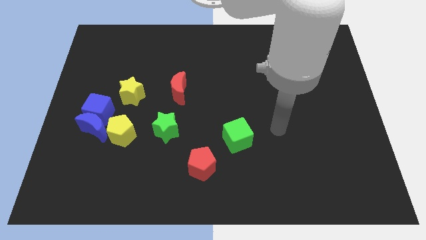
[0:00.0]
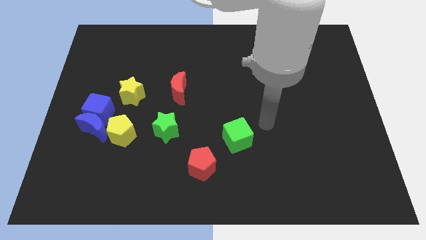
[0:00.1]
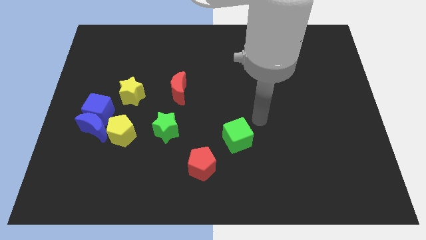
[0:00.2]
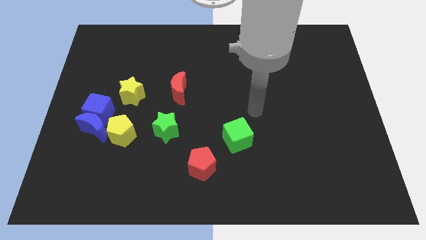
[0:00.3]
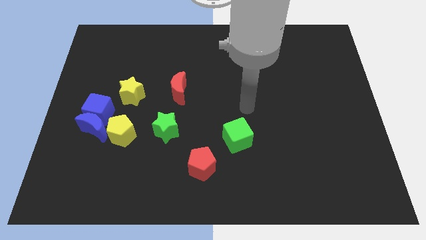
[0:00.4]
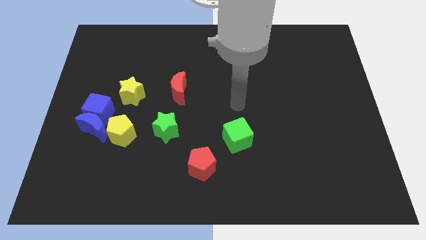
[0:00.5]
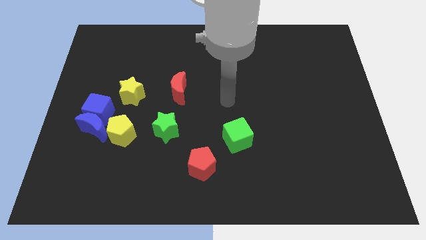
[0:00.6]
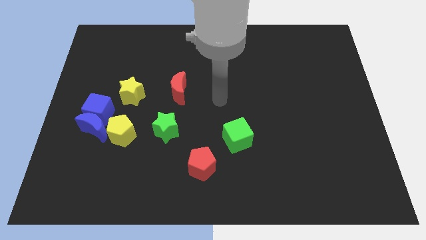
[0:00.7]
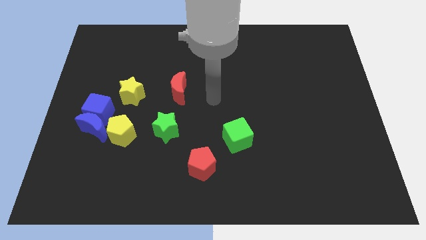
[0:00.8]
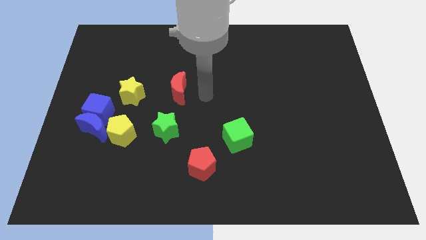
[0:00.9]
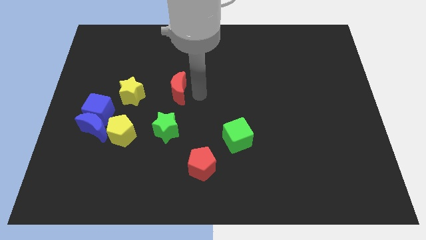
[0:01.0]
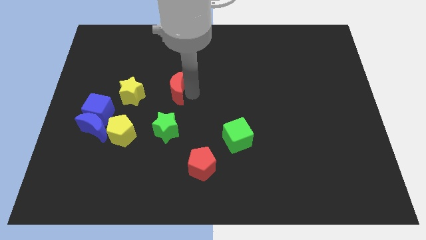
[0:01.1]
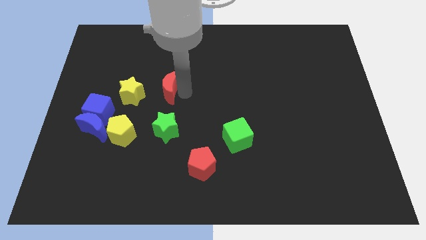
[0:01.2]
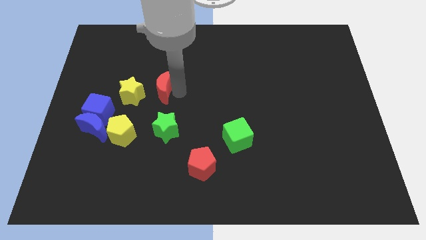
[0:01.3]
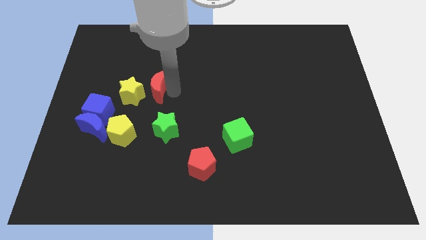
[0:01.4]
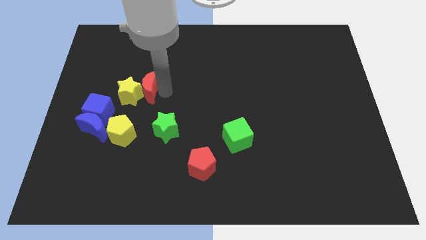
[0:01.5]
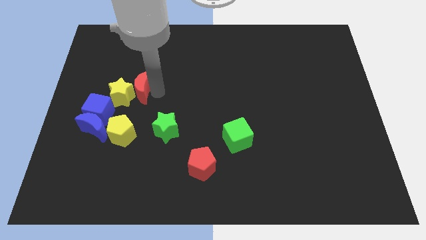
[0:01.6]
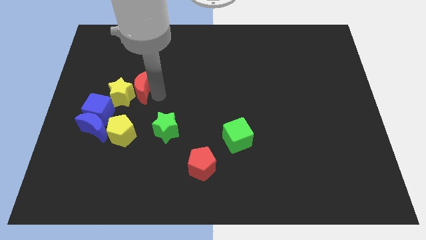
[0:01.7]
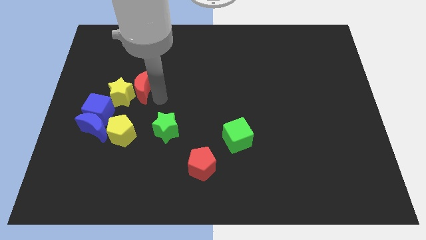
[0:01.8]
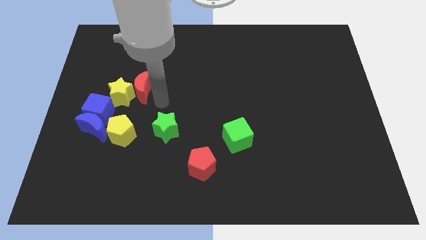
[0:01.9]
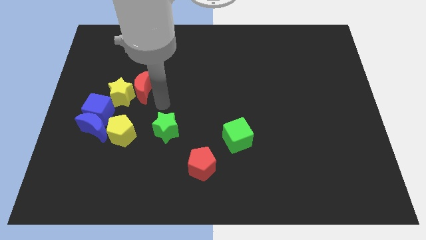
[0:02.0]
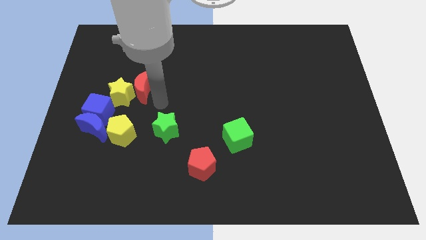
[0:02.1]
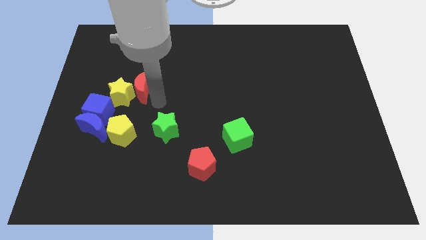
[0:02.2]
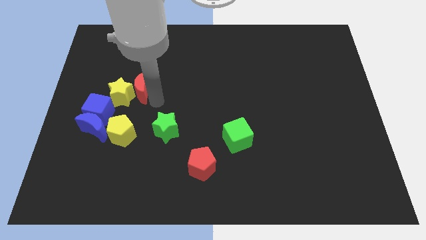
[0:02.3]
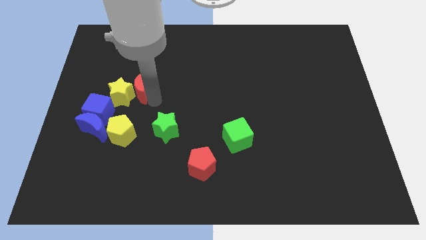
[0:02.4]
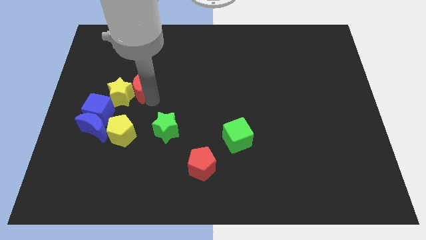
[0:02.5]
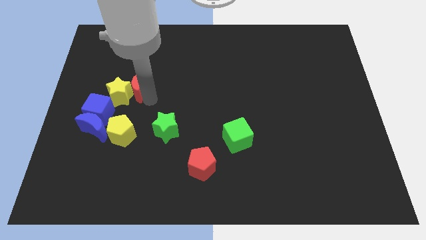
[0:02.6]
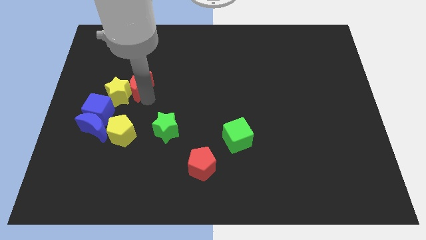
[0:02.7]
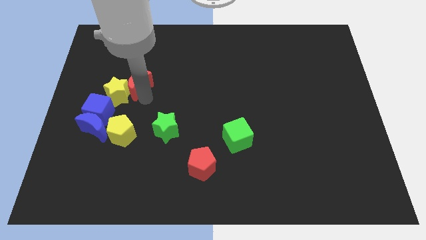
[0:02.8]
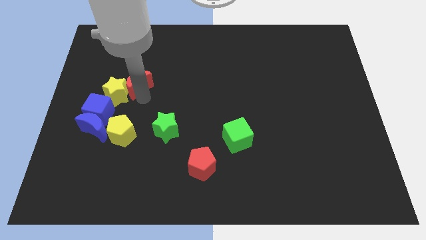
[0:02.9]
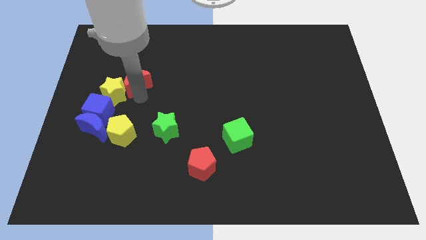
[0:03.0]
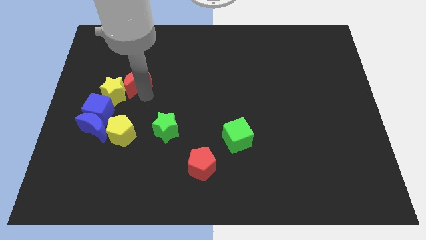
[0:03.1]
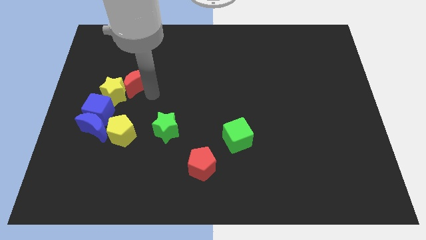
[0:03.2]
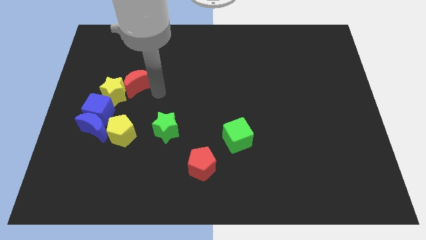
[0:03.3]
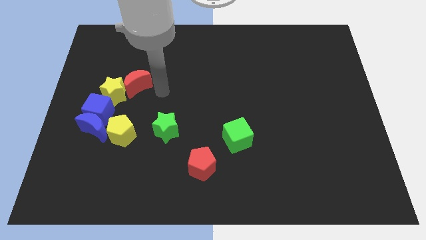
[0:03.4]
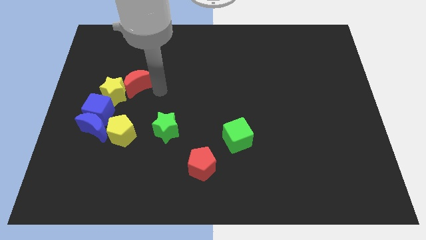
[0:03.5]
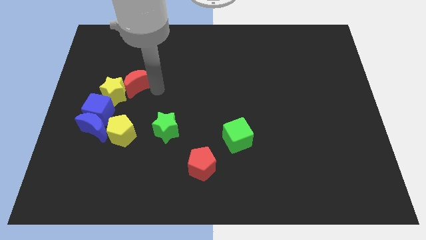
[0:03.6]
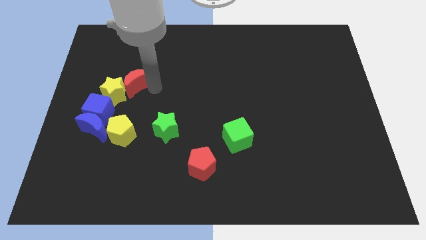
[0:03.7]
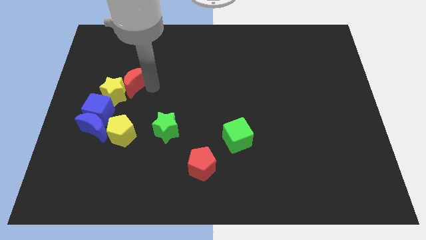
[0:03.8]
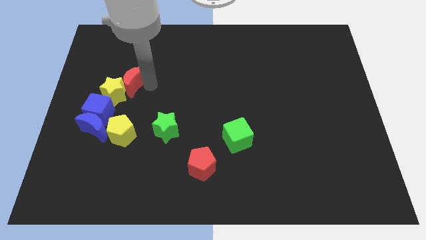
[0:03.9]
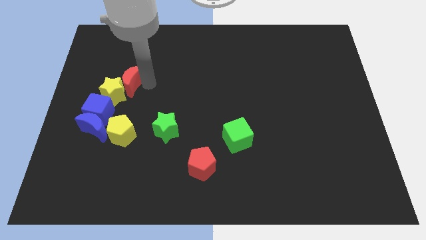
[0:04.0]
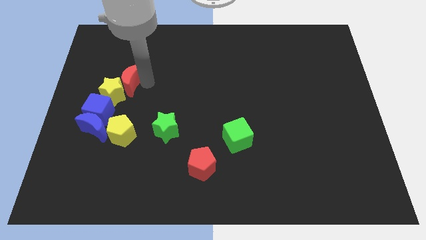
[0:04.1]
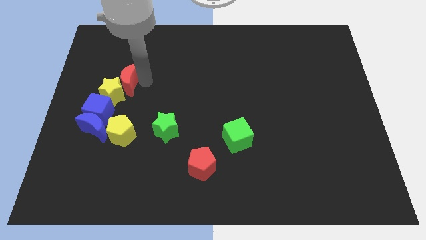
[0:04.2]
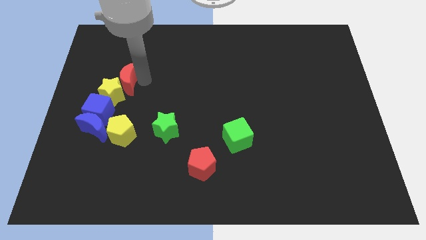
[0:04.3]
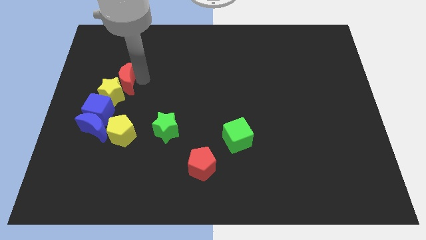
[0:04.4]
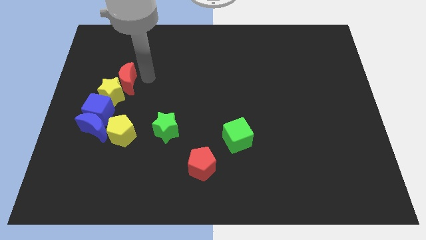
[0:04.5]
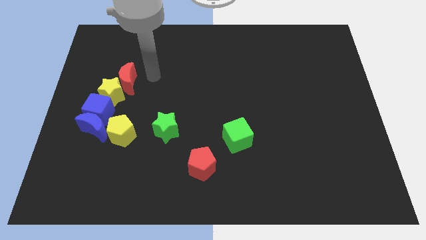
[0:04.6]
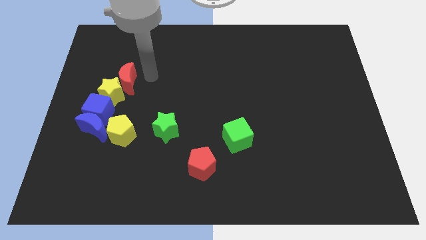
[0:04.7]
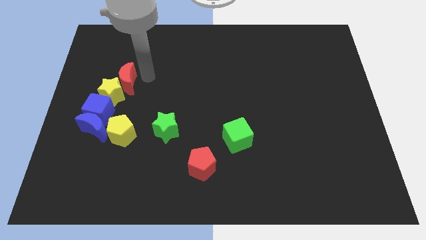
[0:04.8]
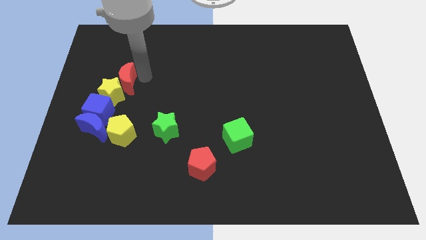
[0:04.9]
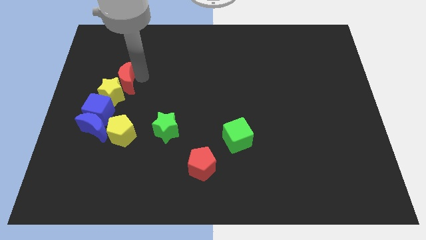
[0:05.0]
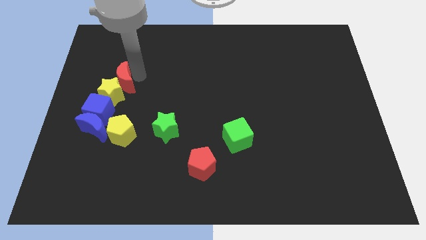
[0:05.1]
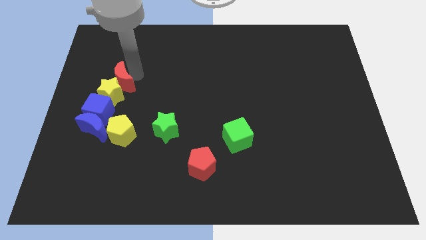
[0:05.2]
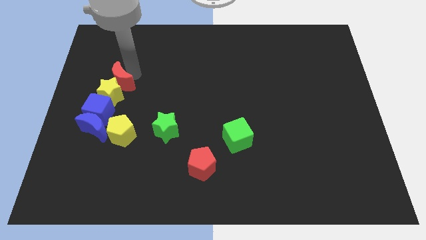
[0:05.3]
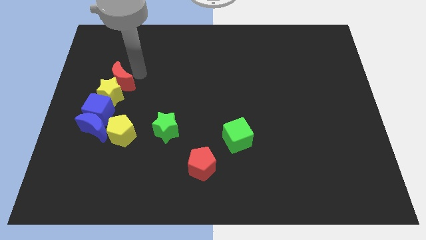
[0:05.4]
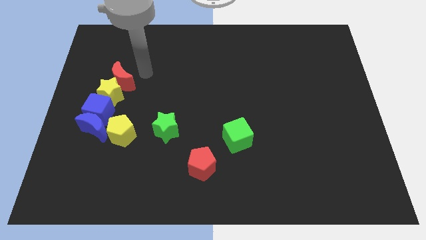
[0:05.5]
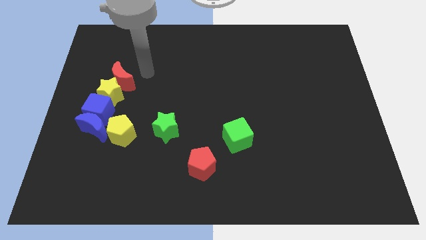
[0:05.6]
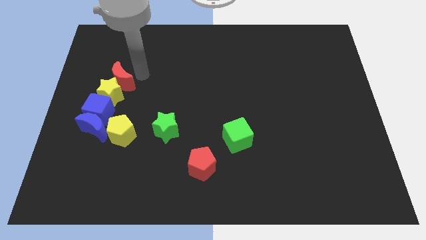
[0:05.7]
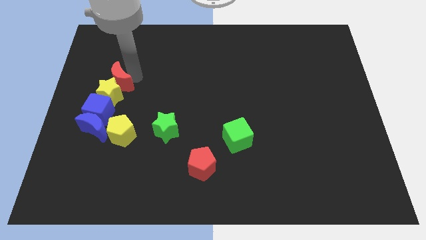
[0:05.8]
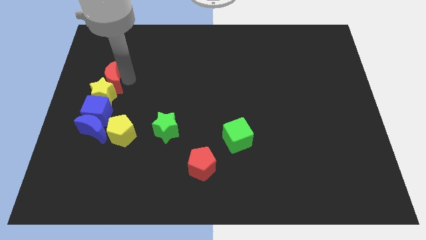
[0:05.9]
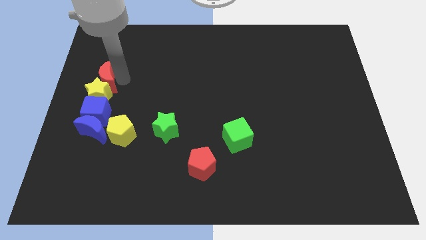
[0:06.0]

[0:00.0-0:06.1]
push the red moon to the left side of the board
